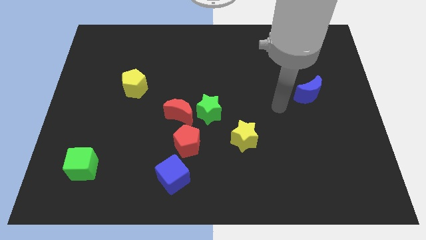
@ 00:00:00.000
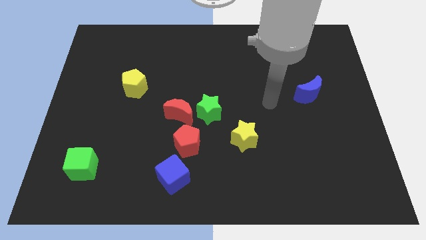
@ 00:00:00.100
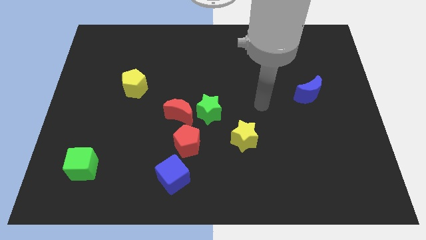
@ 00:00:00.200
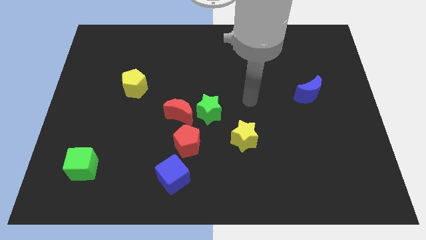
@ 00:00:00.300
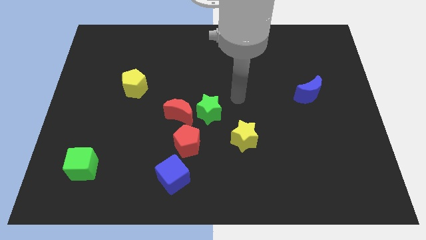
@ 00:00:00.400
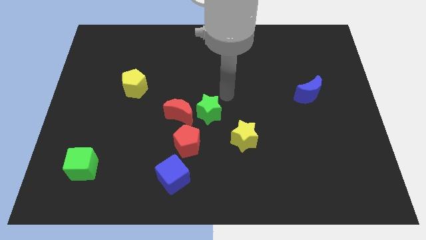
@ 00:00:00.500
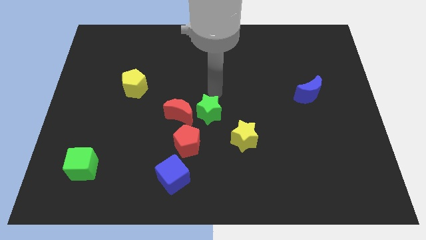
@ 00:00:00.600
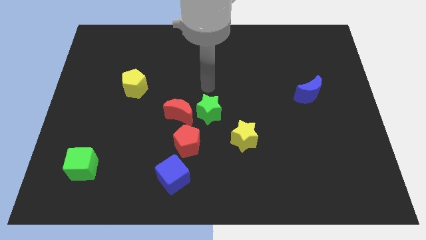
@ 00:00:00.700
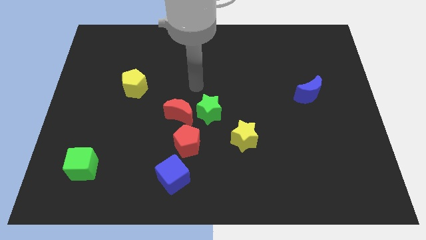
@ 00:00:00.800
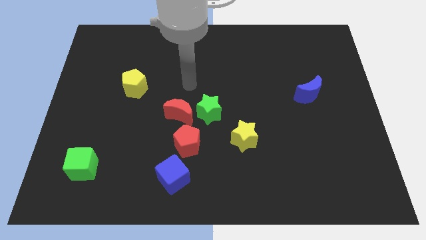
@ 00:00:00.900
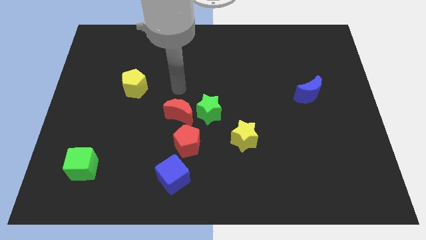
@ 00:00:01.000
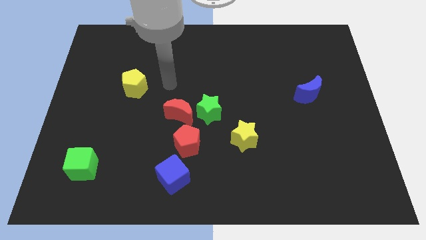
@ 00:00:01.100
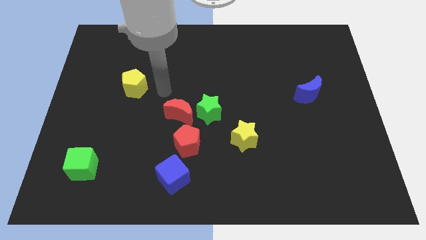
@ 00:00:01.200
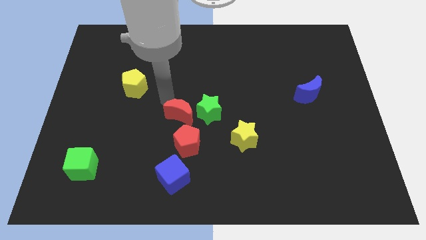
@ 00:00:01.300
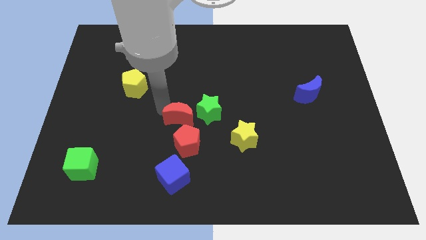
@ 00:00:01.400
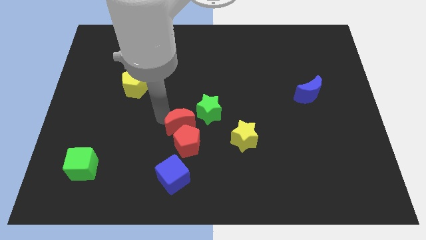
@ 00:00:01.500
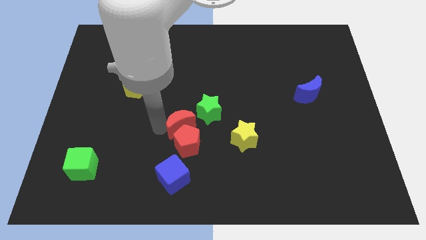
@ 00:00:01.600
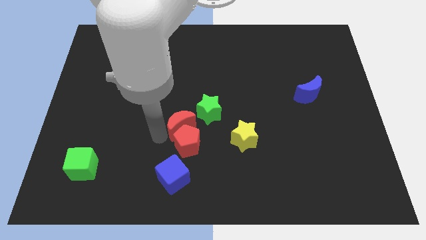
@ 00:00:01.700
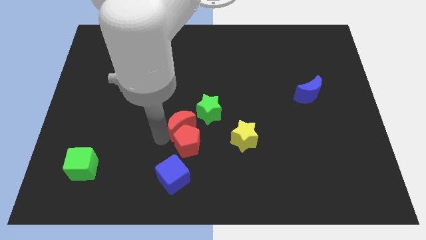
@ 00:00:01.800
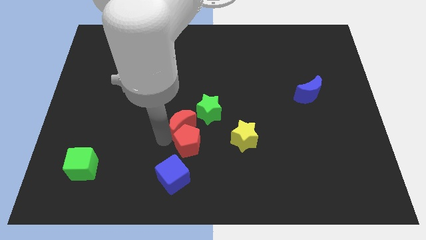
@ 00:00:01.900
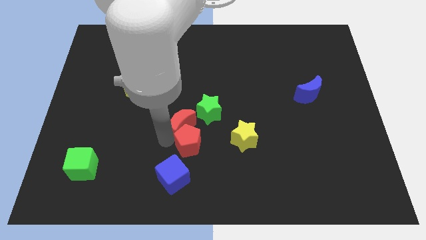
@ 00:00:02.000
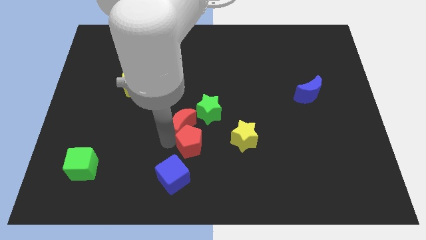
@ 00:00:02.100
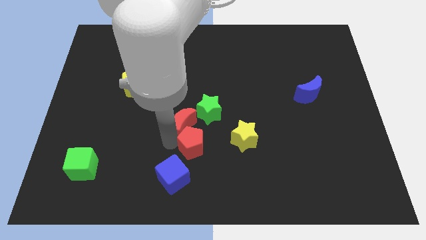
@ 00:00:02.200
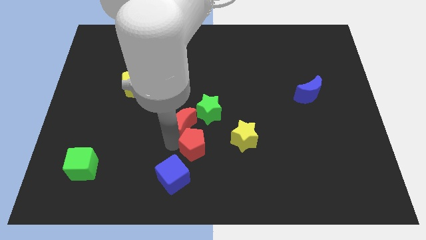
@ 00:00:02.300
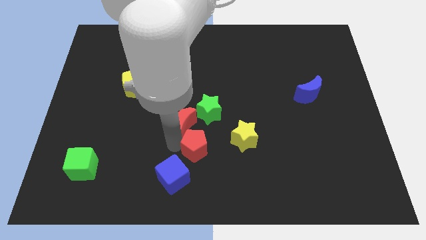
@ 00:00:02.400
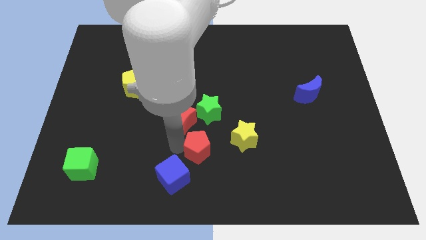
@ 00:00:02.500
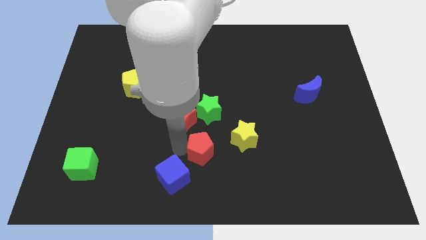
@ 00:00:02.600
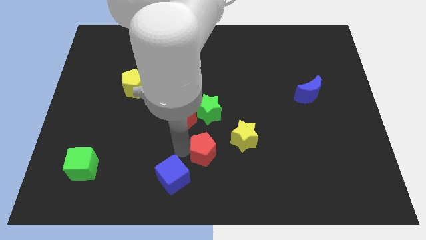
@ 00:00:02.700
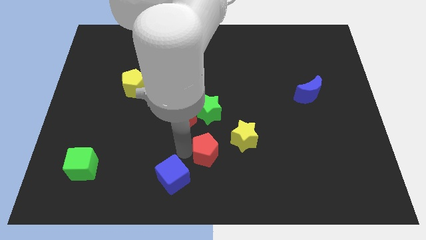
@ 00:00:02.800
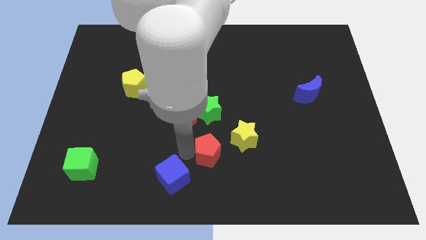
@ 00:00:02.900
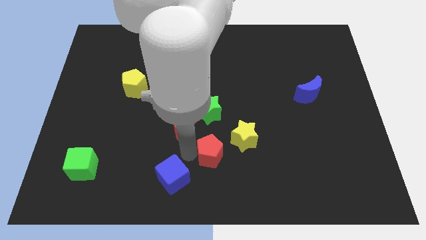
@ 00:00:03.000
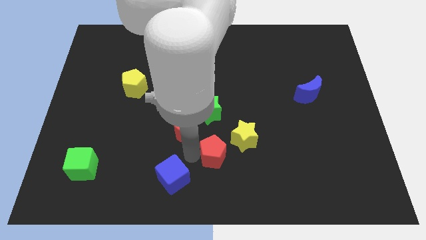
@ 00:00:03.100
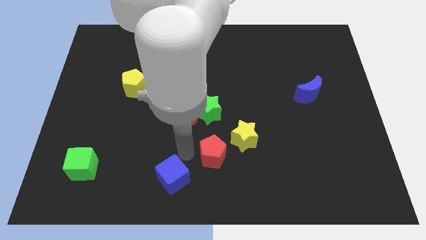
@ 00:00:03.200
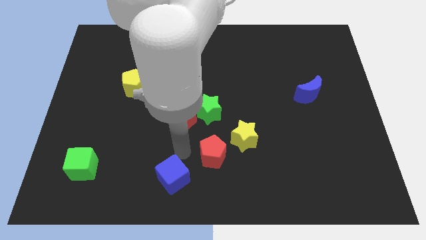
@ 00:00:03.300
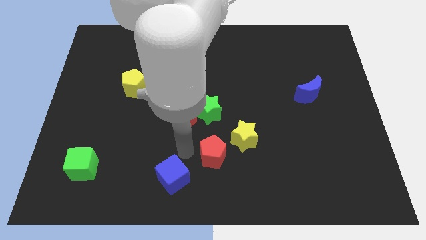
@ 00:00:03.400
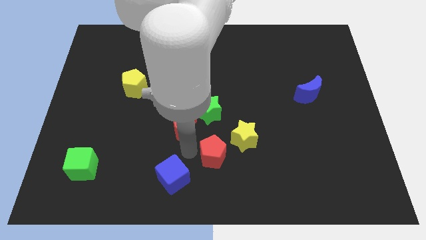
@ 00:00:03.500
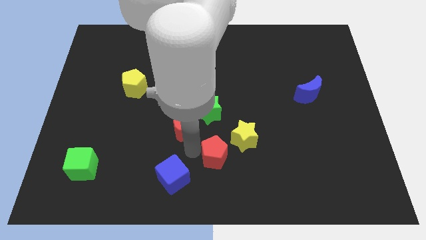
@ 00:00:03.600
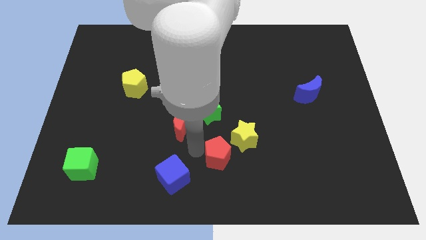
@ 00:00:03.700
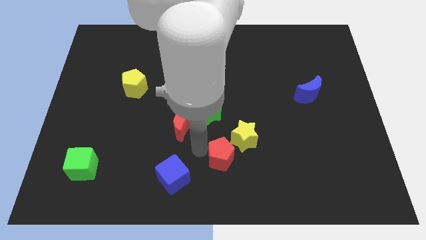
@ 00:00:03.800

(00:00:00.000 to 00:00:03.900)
push the red pentagon right a little

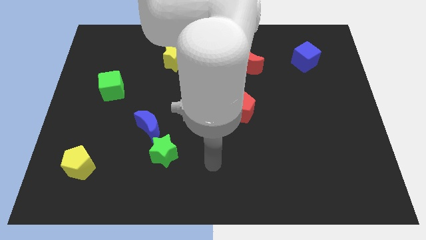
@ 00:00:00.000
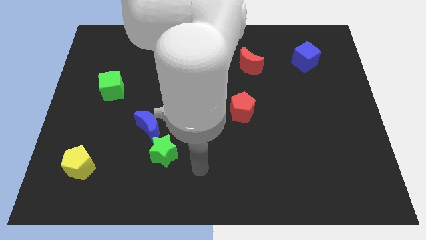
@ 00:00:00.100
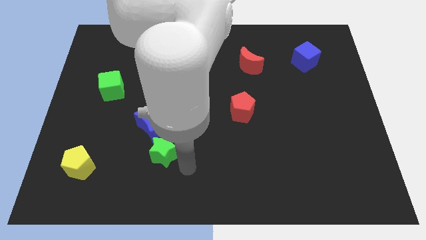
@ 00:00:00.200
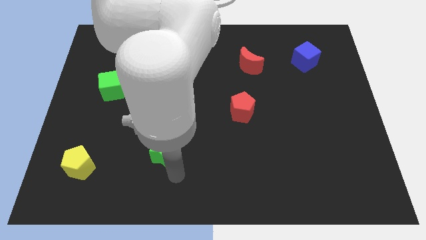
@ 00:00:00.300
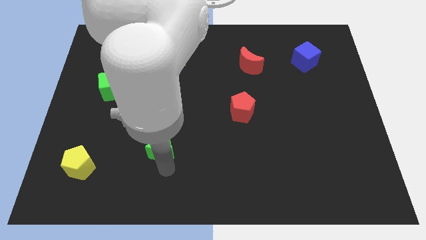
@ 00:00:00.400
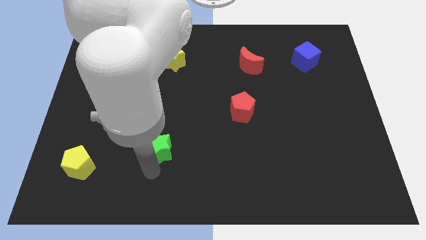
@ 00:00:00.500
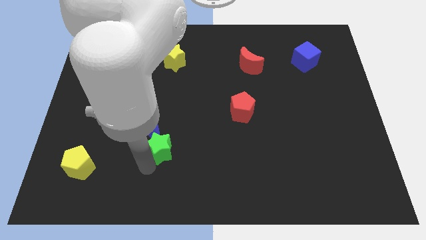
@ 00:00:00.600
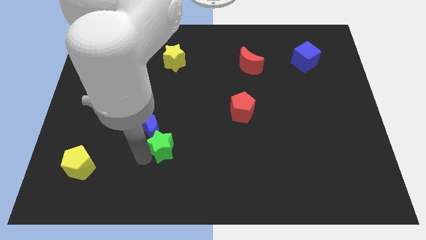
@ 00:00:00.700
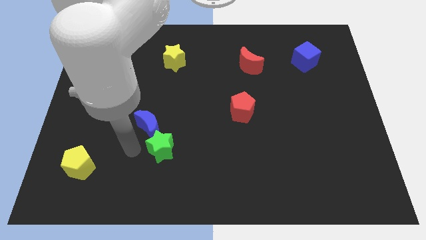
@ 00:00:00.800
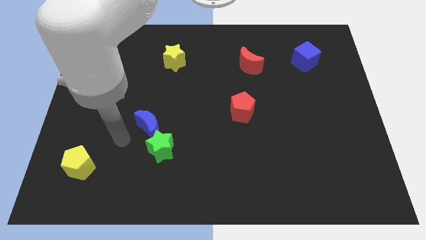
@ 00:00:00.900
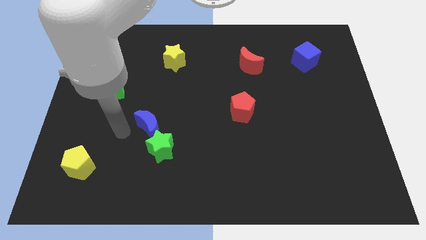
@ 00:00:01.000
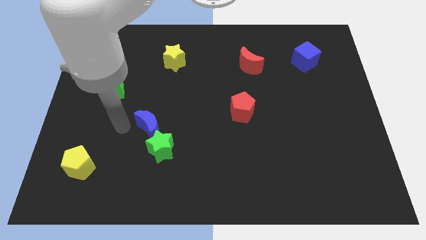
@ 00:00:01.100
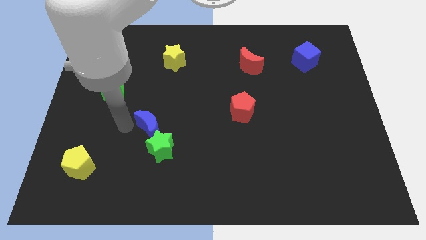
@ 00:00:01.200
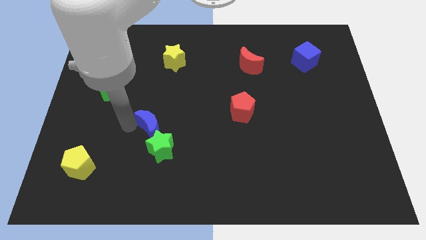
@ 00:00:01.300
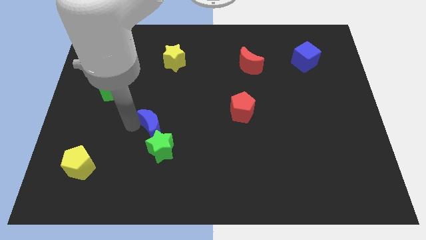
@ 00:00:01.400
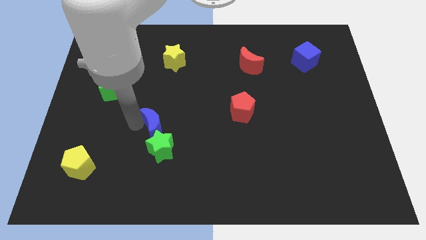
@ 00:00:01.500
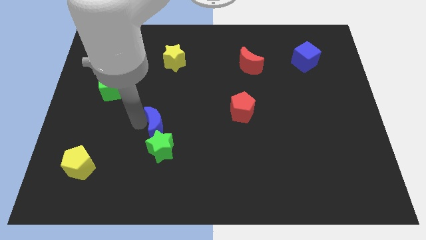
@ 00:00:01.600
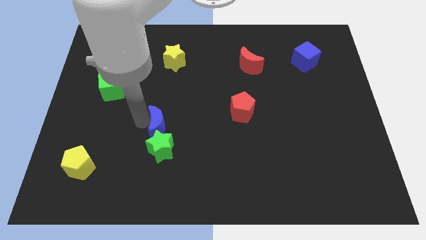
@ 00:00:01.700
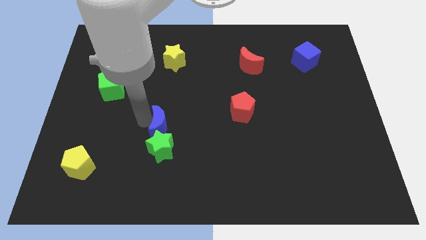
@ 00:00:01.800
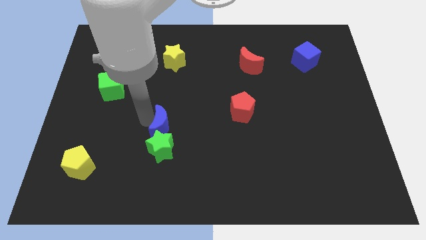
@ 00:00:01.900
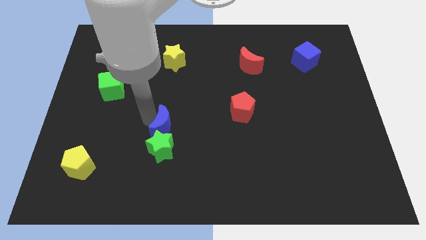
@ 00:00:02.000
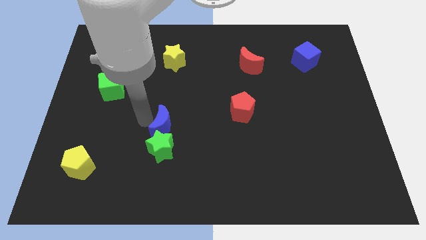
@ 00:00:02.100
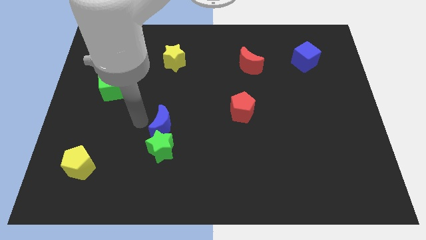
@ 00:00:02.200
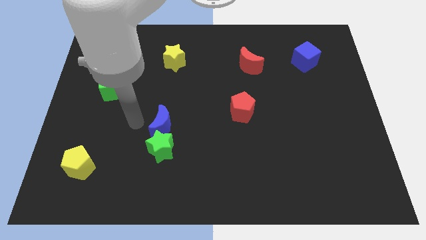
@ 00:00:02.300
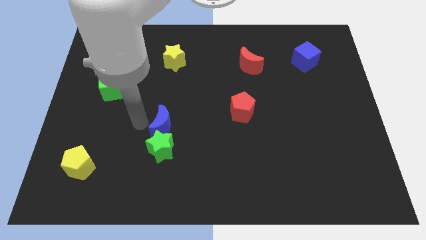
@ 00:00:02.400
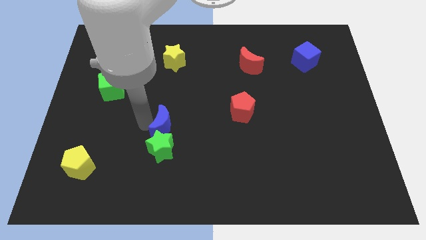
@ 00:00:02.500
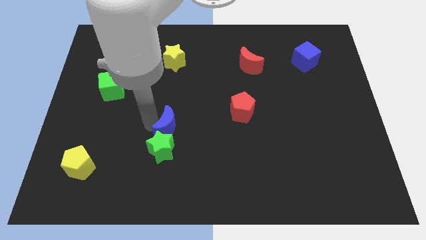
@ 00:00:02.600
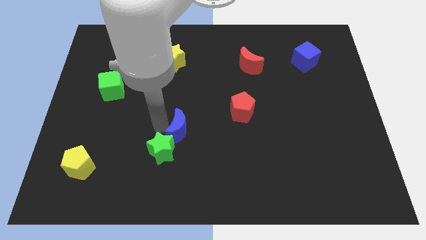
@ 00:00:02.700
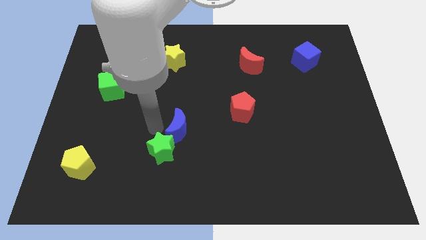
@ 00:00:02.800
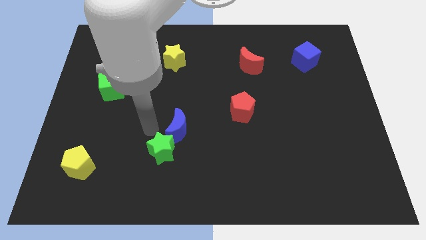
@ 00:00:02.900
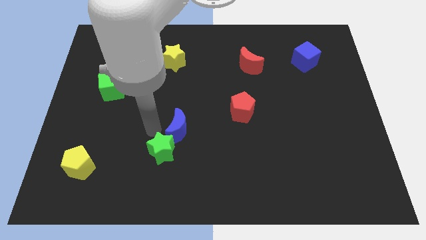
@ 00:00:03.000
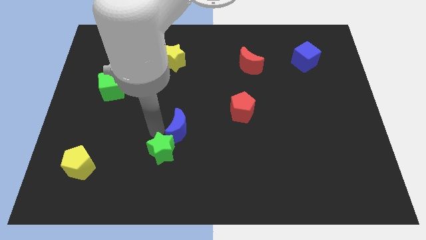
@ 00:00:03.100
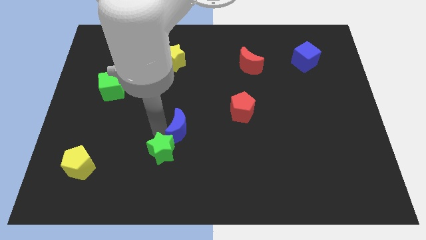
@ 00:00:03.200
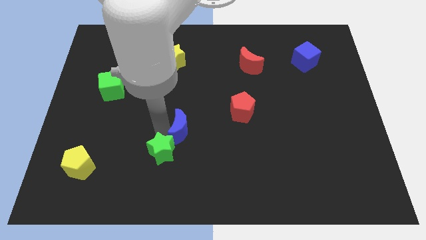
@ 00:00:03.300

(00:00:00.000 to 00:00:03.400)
slide the blue moon a bit right

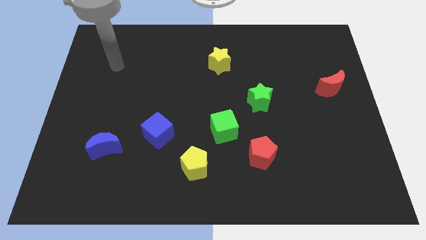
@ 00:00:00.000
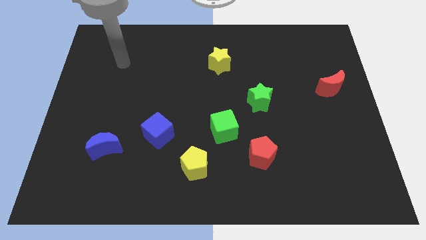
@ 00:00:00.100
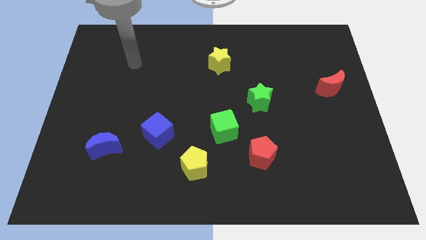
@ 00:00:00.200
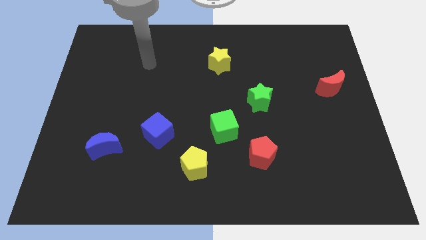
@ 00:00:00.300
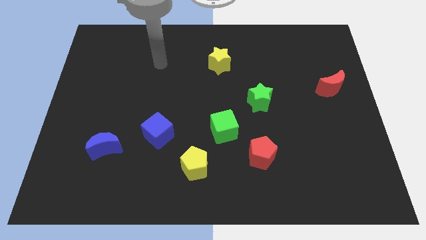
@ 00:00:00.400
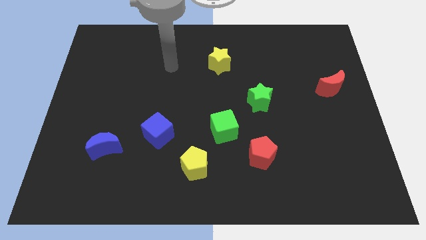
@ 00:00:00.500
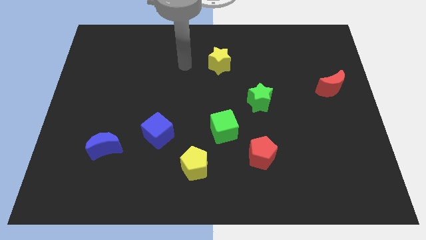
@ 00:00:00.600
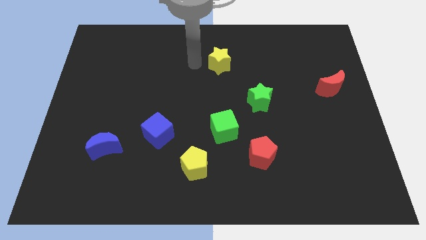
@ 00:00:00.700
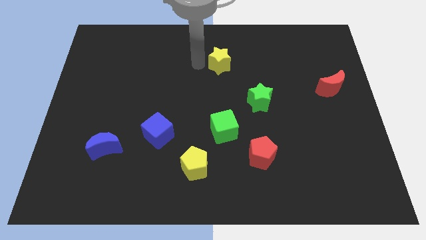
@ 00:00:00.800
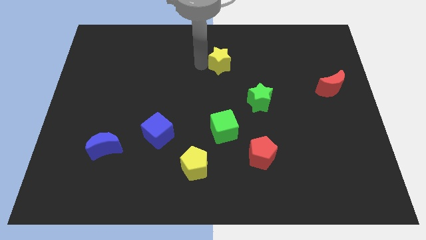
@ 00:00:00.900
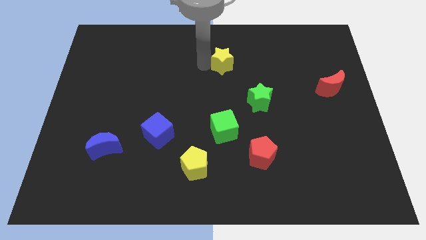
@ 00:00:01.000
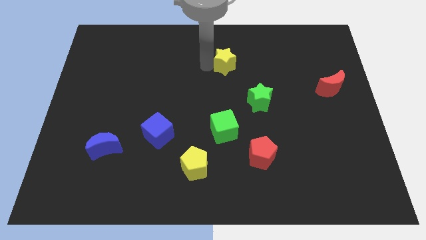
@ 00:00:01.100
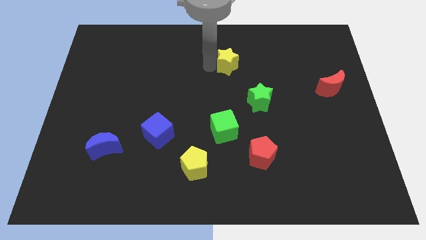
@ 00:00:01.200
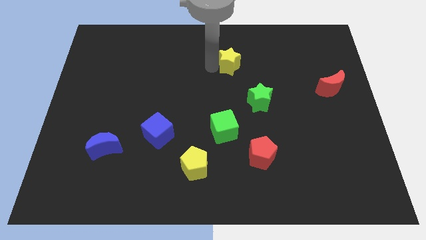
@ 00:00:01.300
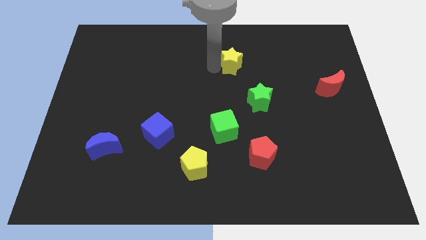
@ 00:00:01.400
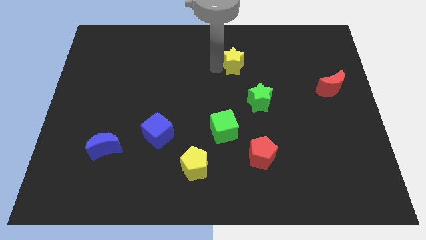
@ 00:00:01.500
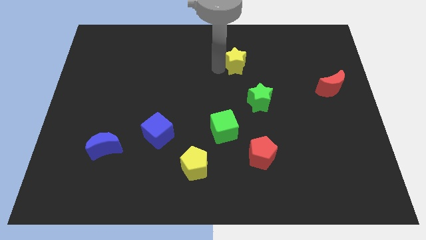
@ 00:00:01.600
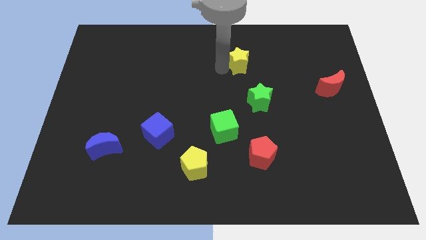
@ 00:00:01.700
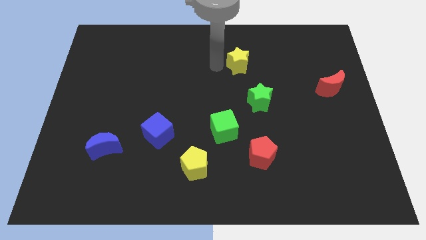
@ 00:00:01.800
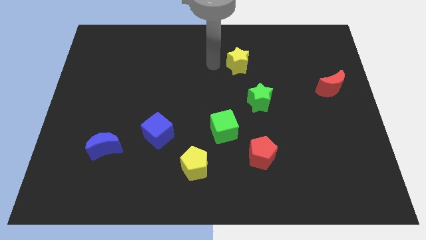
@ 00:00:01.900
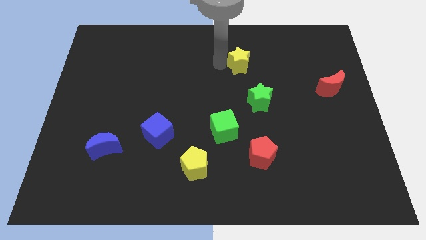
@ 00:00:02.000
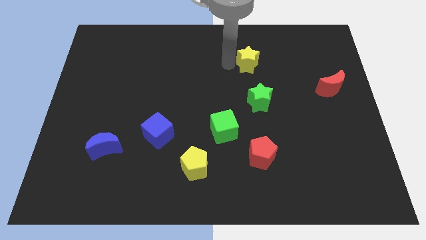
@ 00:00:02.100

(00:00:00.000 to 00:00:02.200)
slide the yellow star right a little bit
